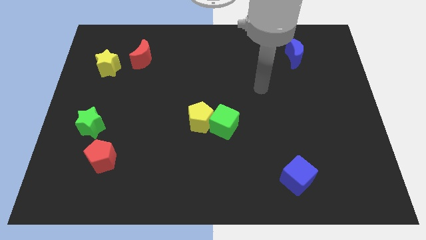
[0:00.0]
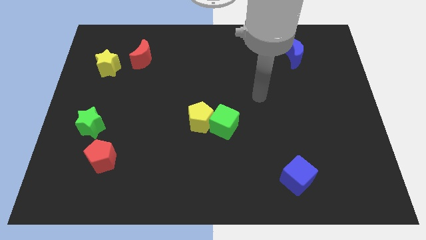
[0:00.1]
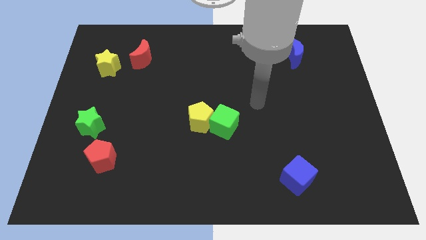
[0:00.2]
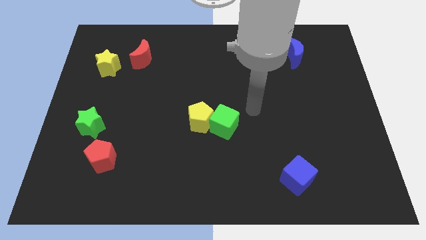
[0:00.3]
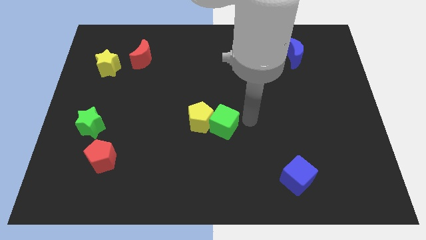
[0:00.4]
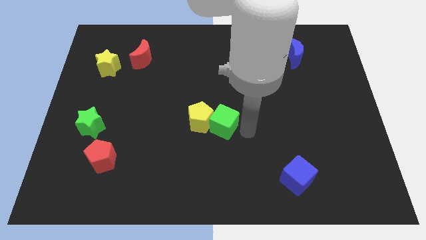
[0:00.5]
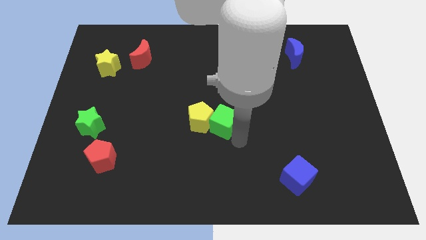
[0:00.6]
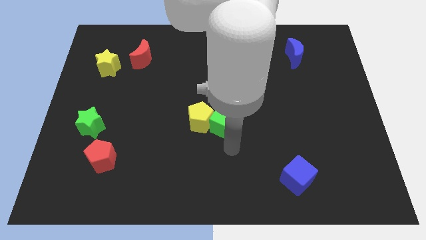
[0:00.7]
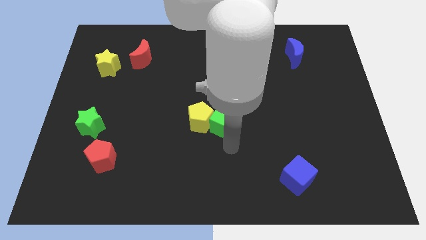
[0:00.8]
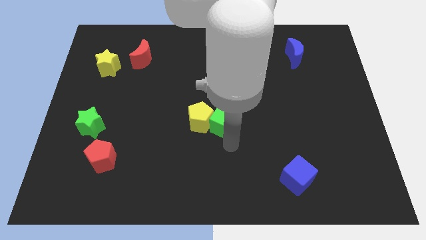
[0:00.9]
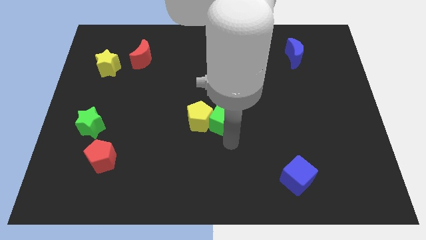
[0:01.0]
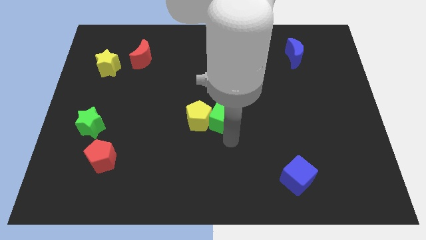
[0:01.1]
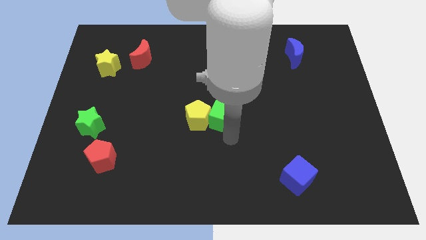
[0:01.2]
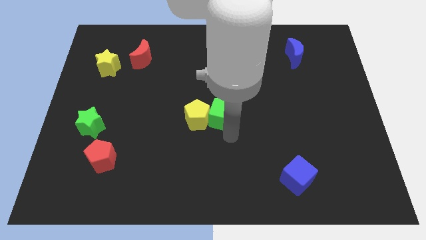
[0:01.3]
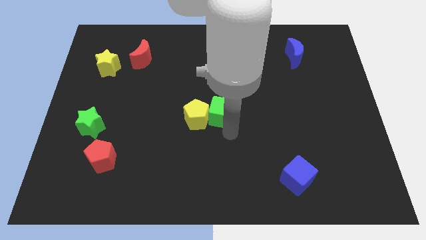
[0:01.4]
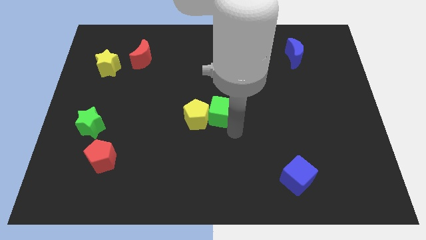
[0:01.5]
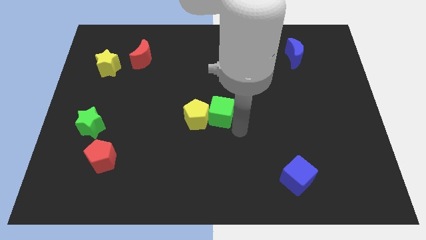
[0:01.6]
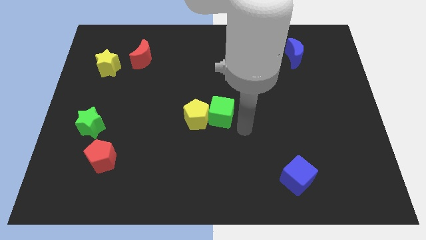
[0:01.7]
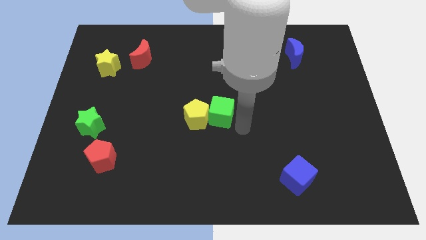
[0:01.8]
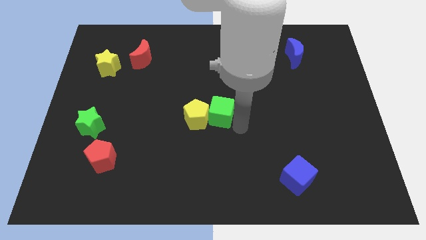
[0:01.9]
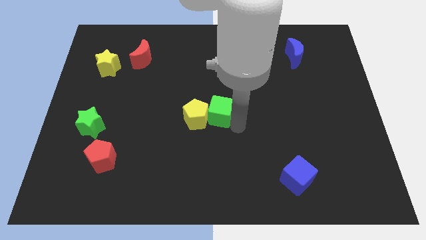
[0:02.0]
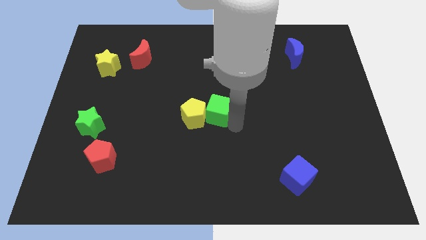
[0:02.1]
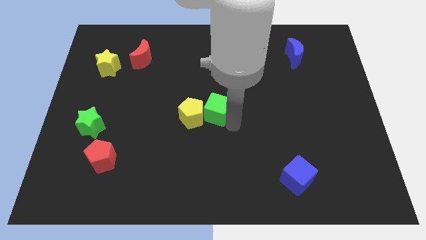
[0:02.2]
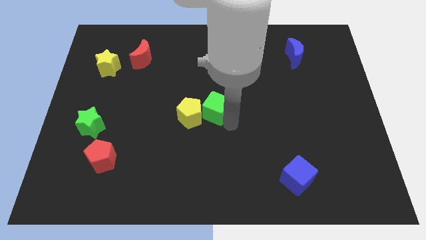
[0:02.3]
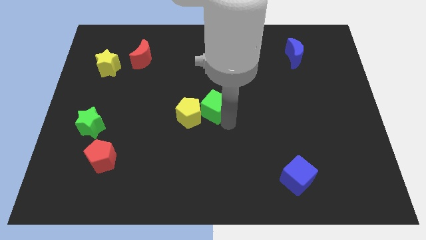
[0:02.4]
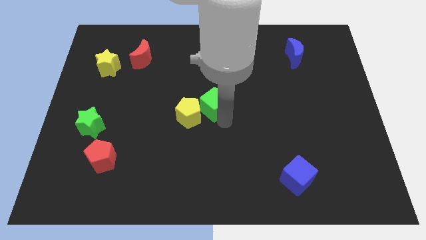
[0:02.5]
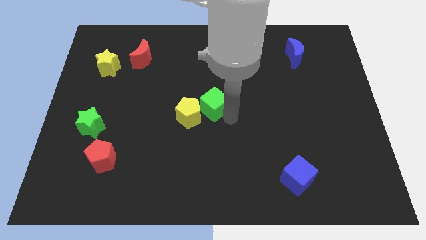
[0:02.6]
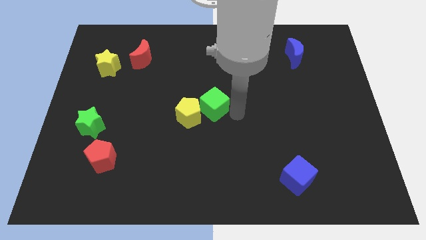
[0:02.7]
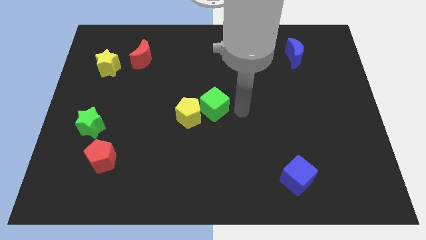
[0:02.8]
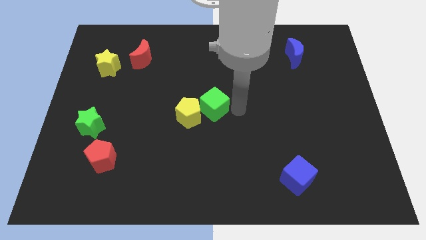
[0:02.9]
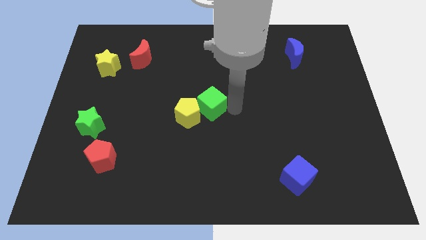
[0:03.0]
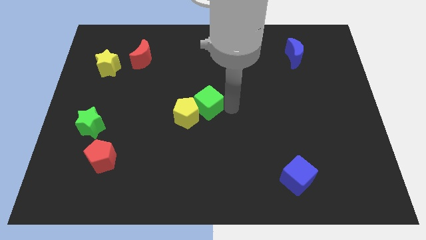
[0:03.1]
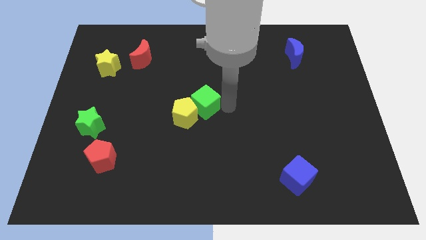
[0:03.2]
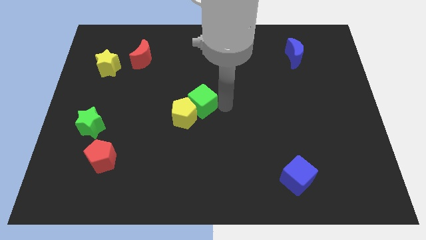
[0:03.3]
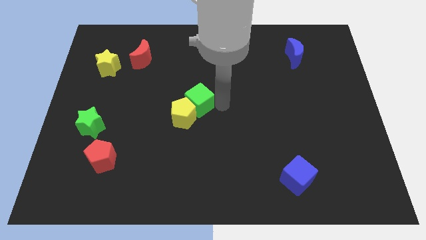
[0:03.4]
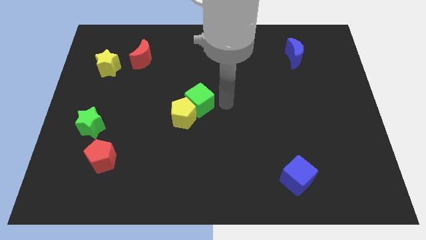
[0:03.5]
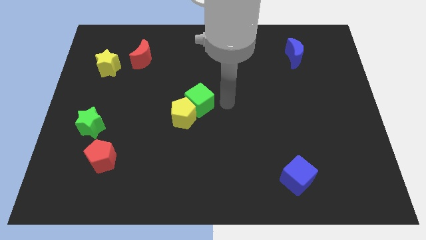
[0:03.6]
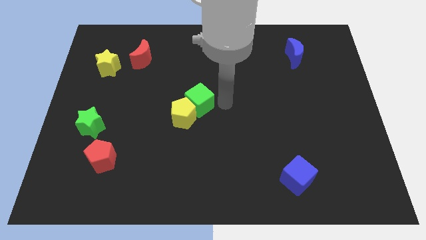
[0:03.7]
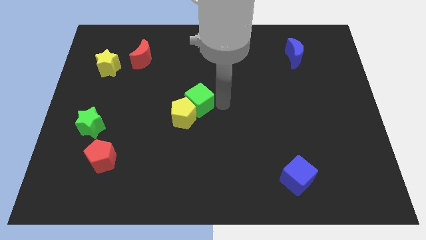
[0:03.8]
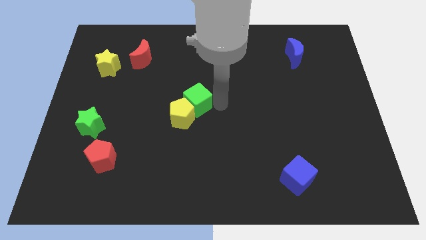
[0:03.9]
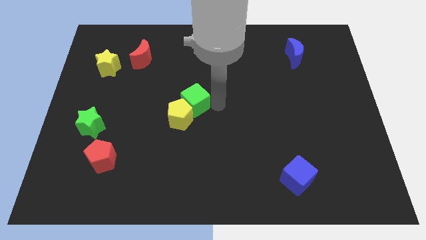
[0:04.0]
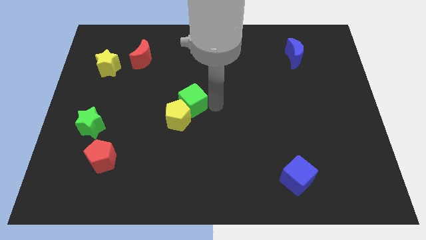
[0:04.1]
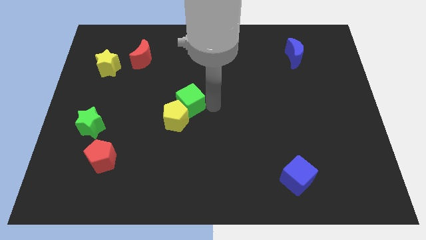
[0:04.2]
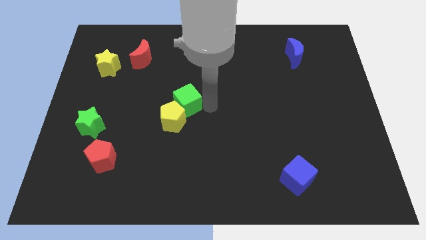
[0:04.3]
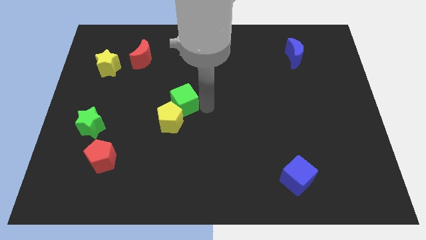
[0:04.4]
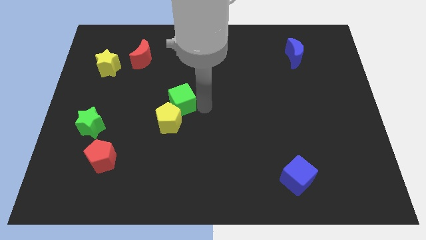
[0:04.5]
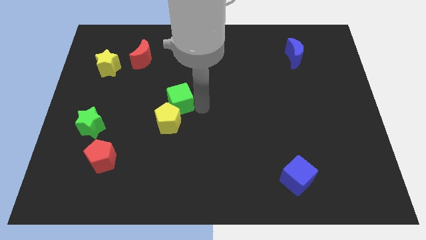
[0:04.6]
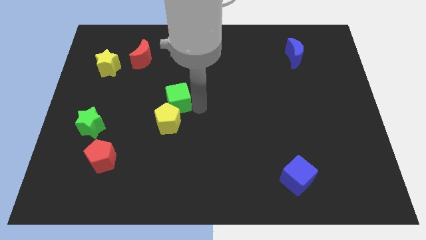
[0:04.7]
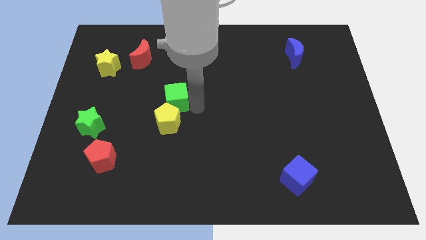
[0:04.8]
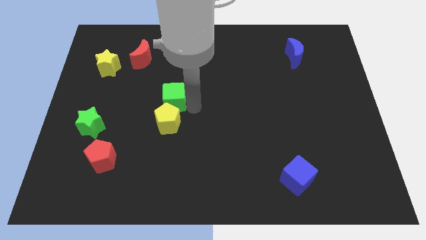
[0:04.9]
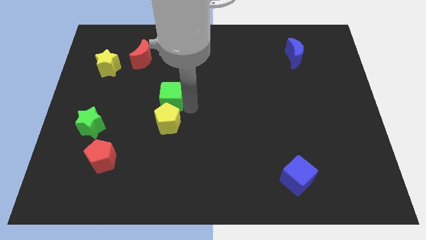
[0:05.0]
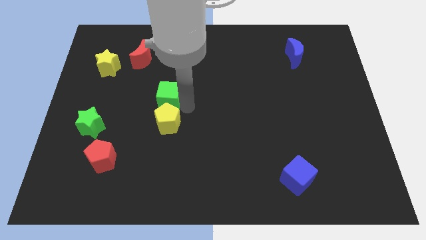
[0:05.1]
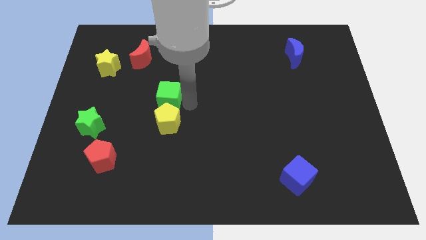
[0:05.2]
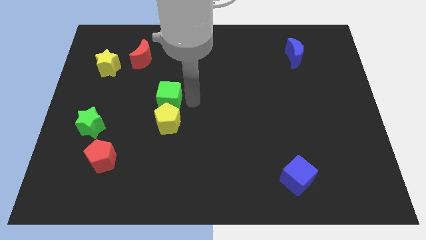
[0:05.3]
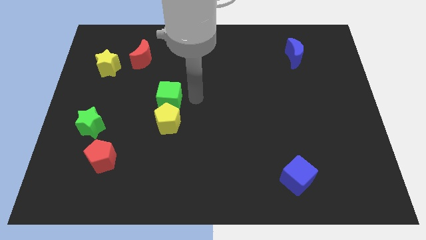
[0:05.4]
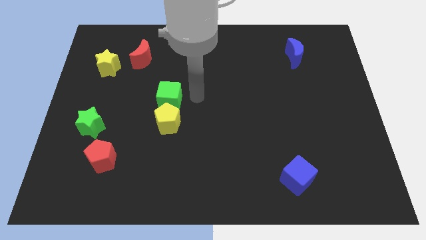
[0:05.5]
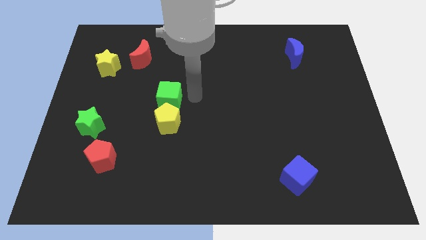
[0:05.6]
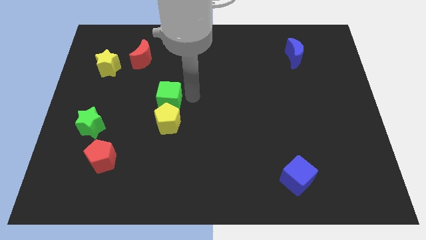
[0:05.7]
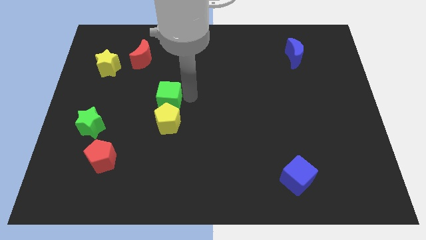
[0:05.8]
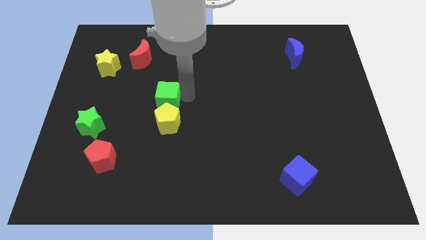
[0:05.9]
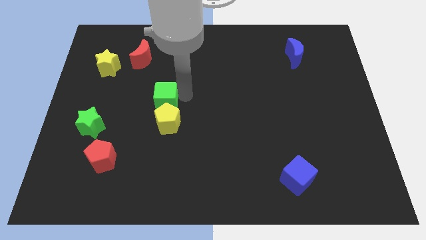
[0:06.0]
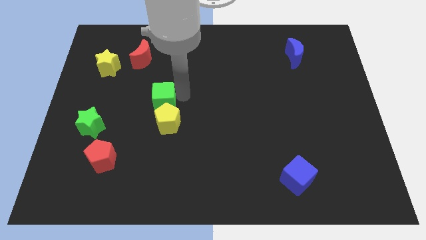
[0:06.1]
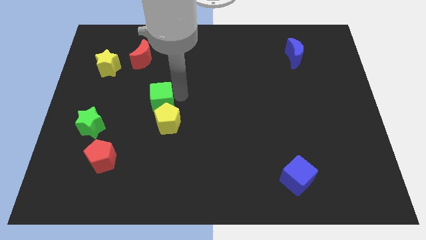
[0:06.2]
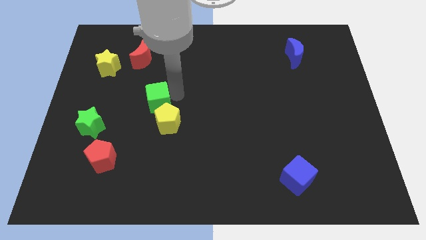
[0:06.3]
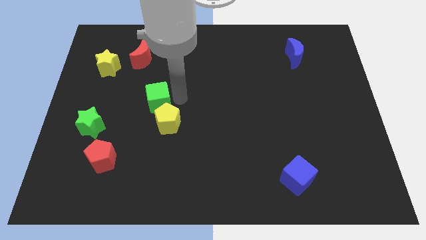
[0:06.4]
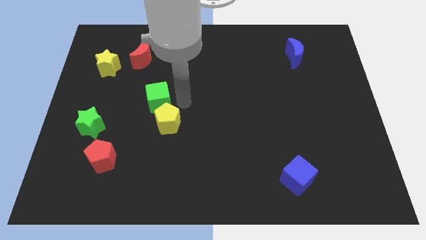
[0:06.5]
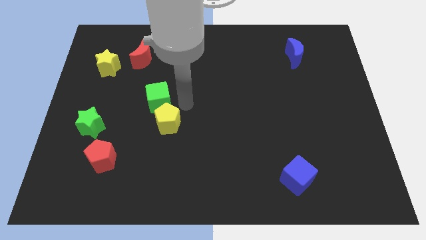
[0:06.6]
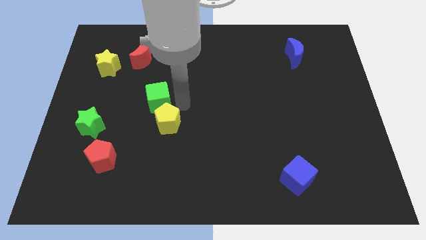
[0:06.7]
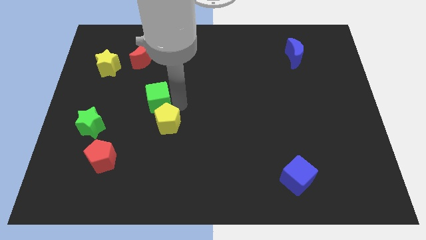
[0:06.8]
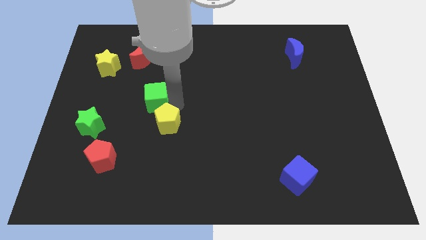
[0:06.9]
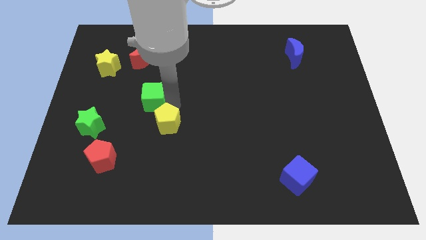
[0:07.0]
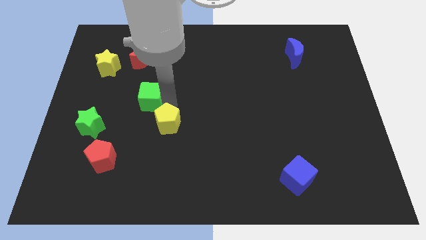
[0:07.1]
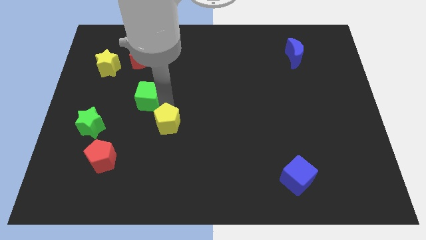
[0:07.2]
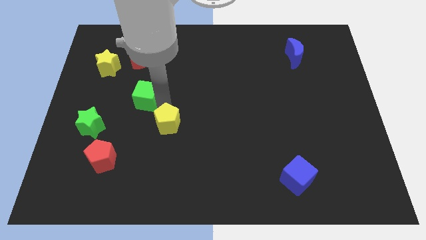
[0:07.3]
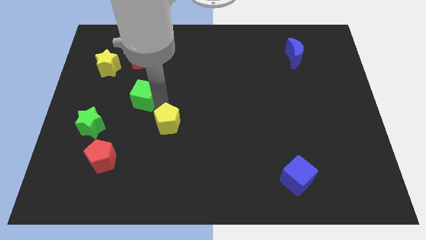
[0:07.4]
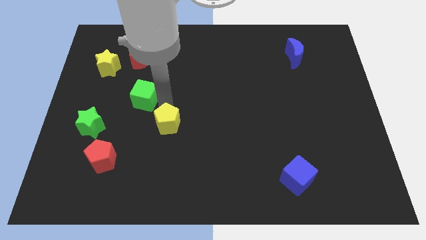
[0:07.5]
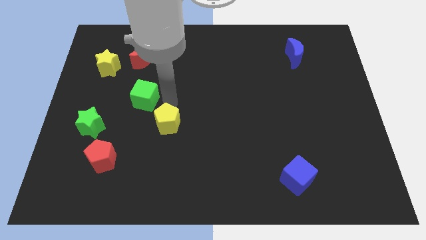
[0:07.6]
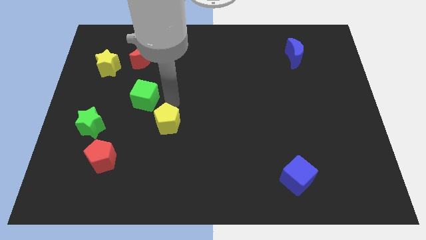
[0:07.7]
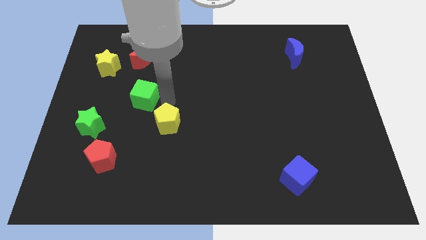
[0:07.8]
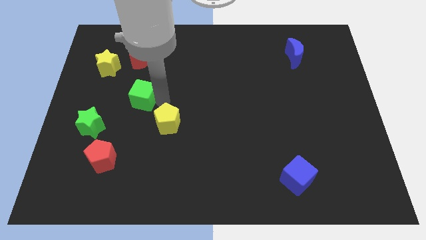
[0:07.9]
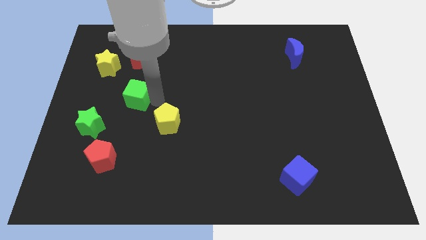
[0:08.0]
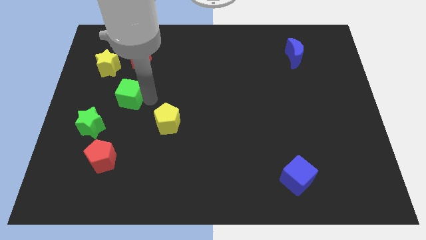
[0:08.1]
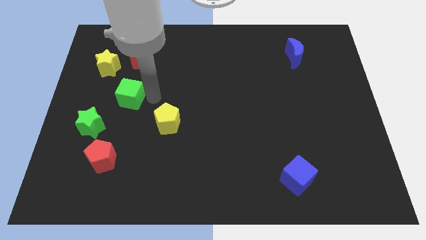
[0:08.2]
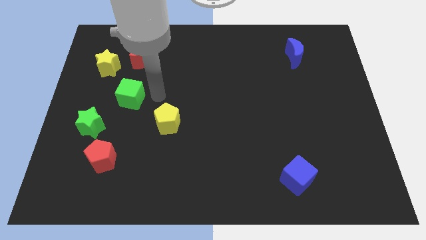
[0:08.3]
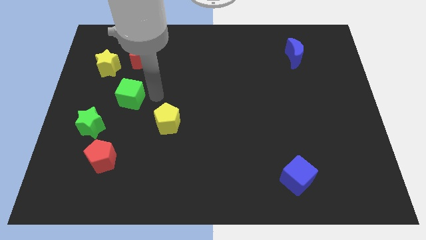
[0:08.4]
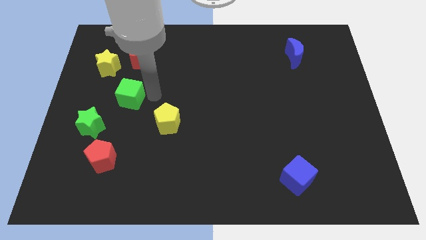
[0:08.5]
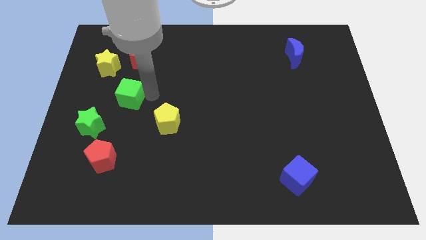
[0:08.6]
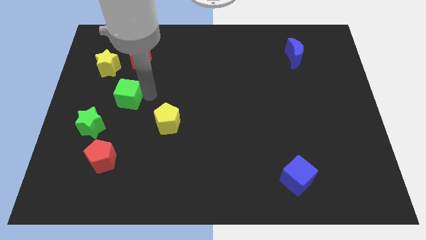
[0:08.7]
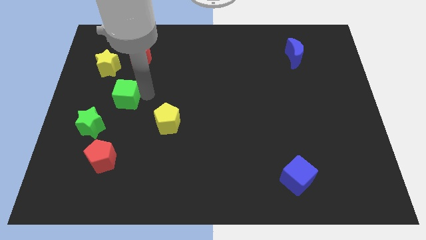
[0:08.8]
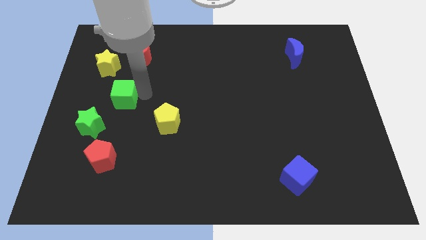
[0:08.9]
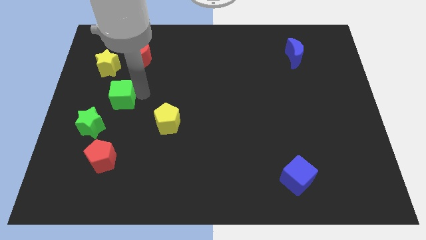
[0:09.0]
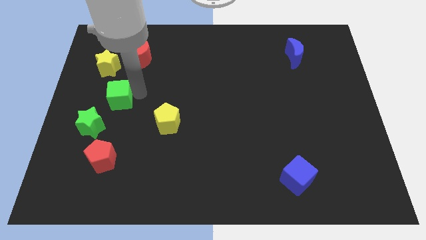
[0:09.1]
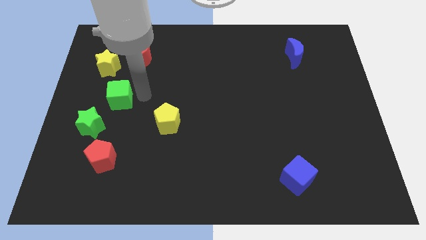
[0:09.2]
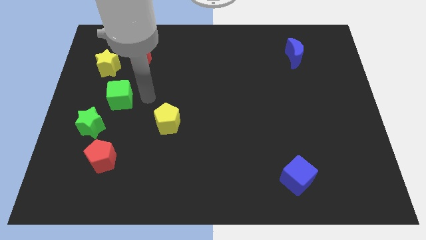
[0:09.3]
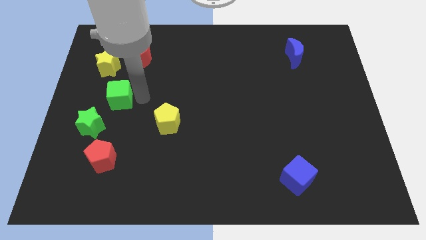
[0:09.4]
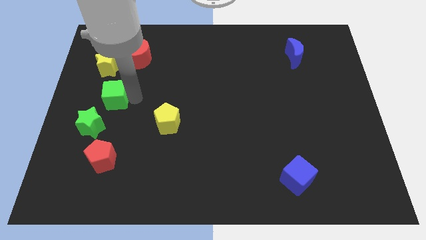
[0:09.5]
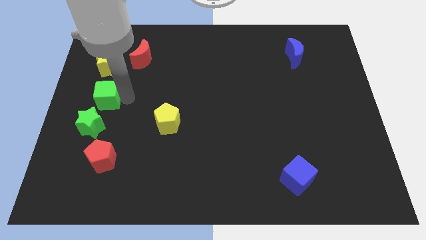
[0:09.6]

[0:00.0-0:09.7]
move the green cube to the left side of the board
